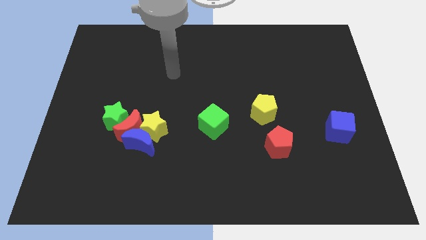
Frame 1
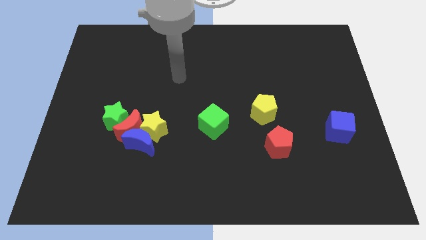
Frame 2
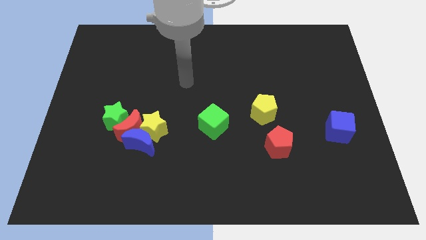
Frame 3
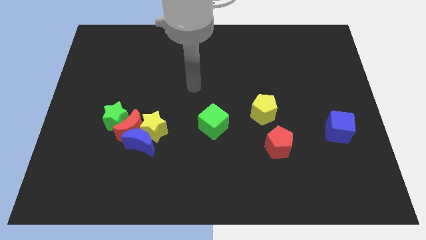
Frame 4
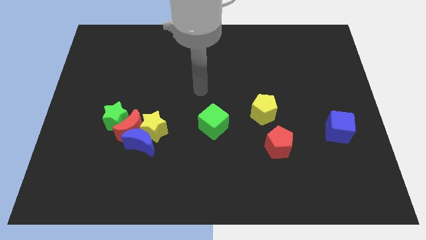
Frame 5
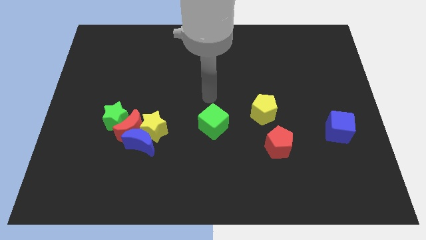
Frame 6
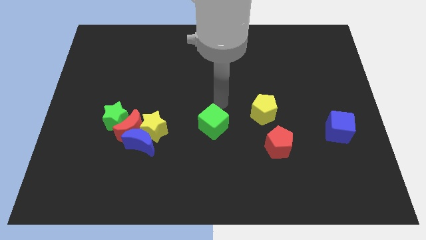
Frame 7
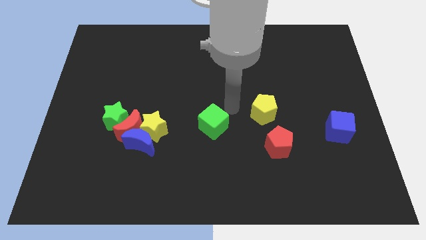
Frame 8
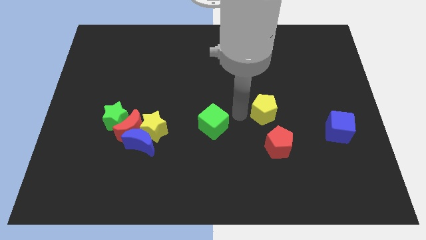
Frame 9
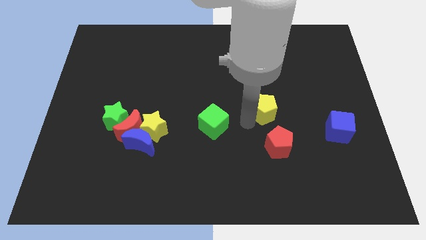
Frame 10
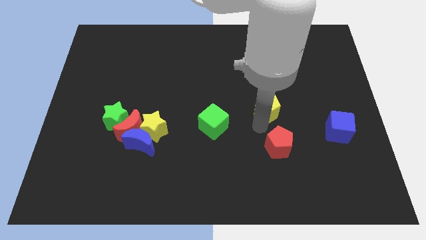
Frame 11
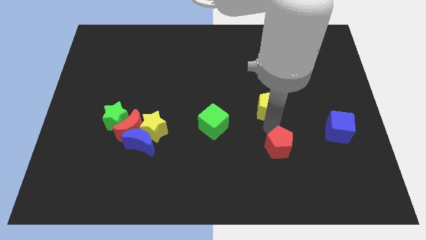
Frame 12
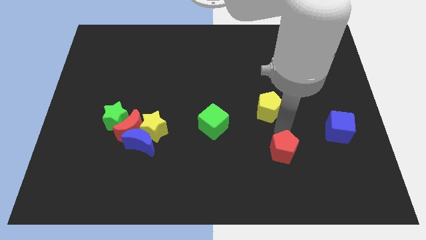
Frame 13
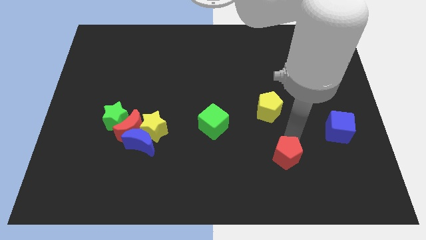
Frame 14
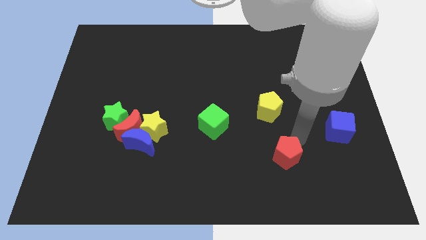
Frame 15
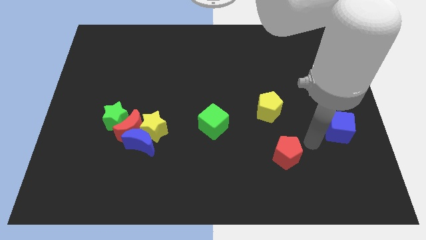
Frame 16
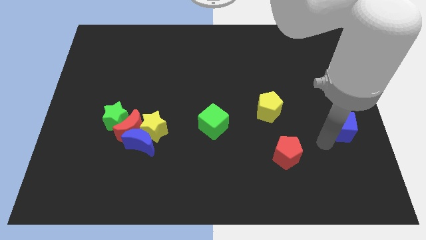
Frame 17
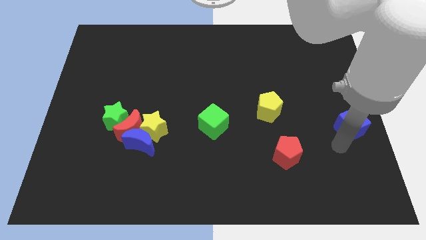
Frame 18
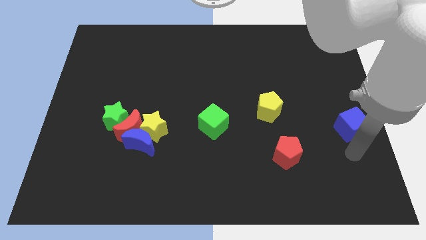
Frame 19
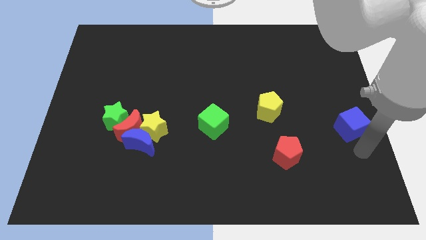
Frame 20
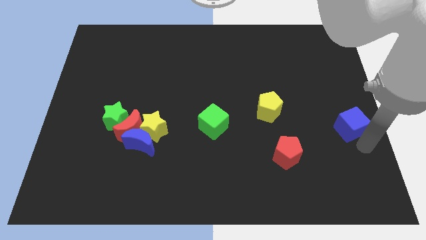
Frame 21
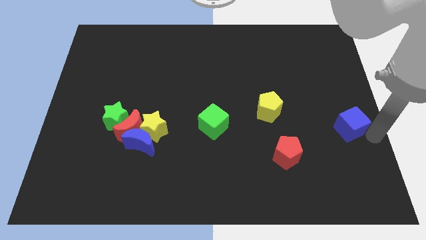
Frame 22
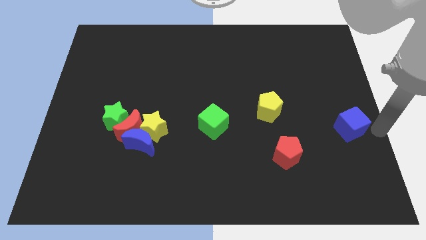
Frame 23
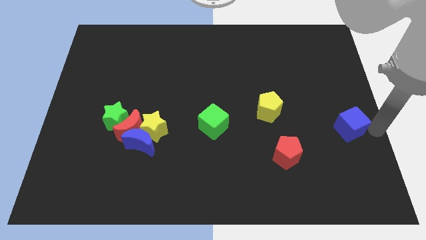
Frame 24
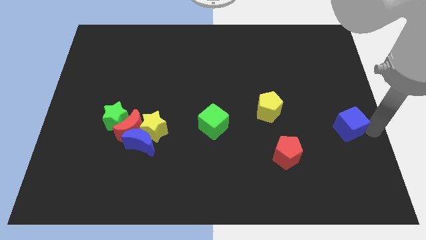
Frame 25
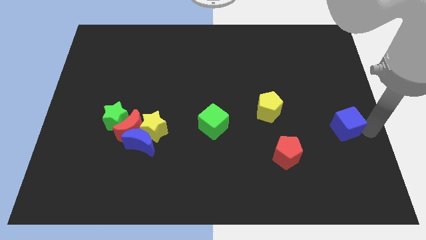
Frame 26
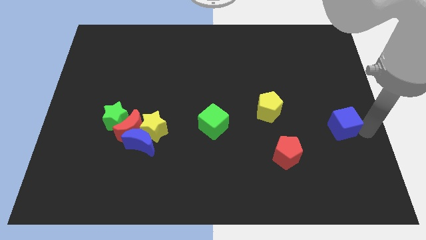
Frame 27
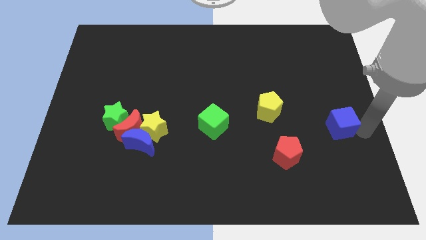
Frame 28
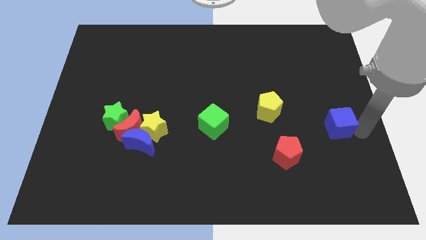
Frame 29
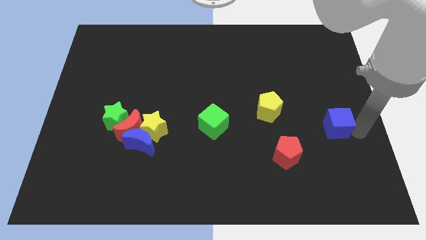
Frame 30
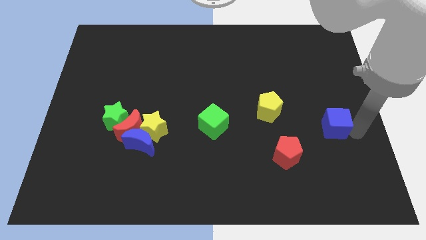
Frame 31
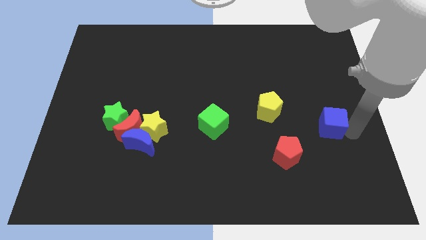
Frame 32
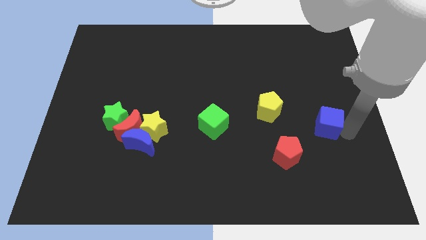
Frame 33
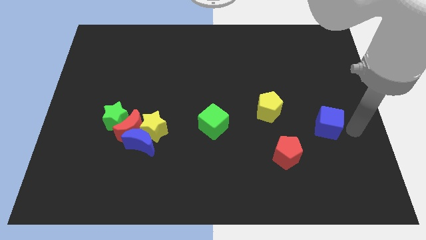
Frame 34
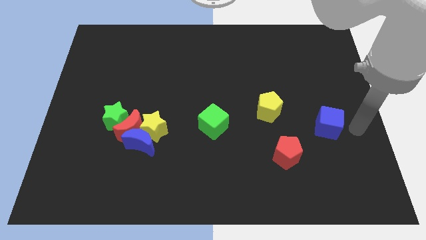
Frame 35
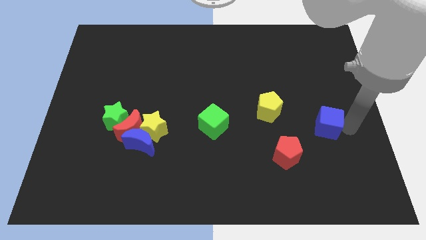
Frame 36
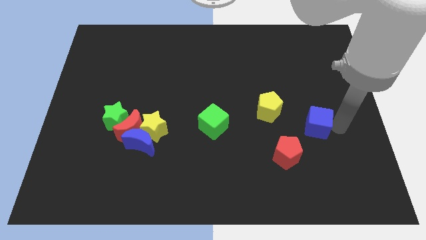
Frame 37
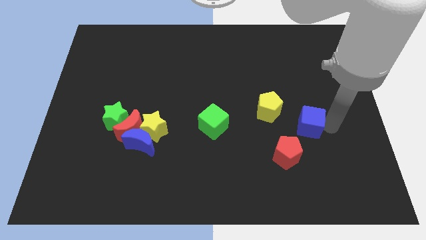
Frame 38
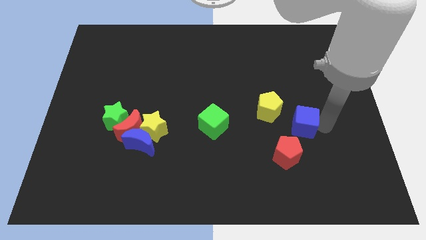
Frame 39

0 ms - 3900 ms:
slightly push the blue cube left

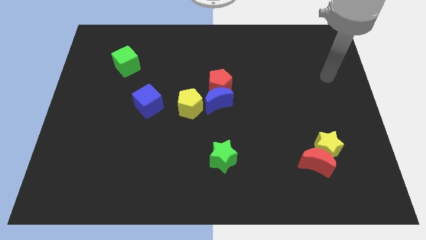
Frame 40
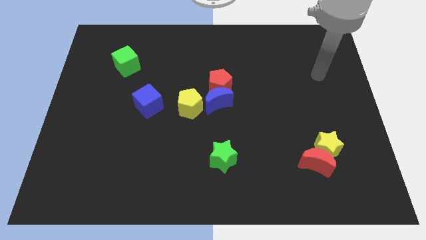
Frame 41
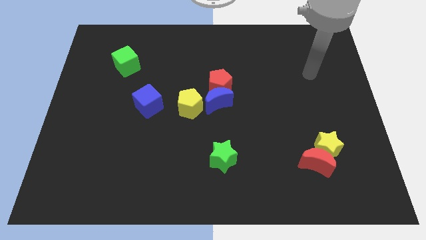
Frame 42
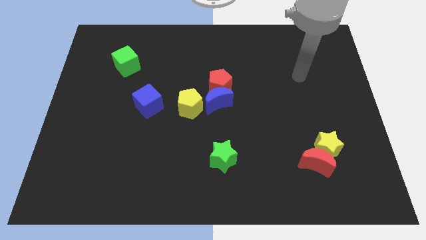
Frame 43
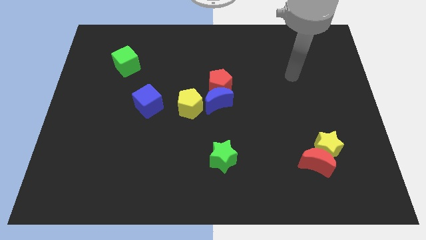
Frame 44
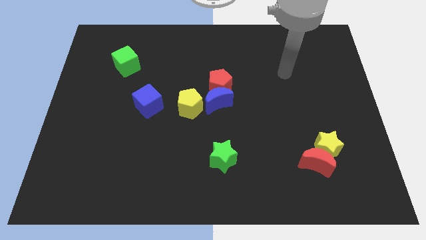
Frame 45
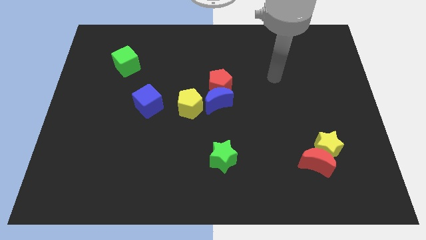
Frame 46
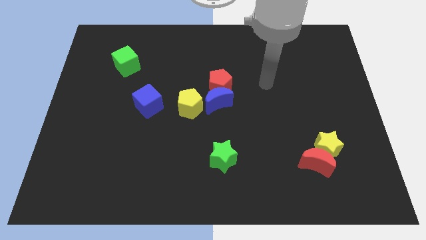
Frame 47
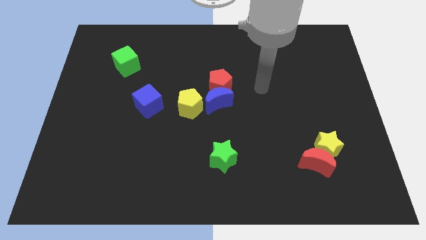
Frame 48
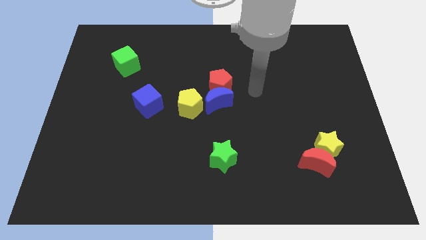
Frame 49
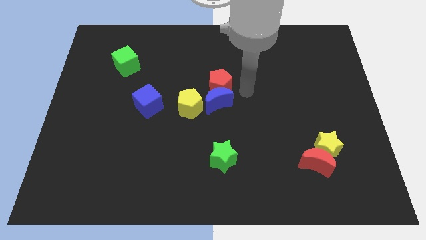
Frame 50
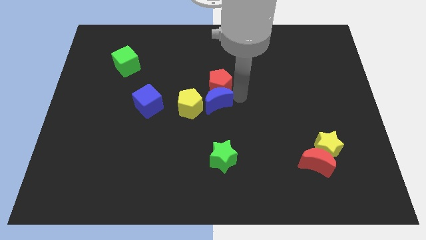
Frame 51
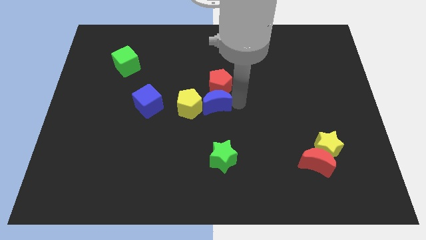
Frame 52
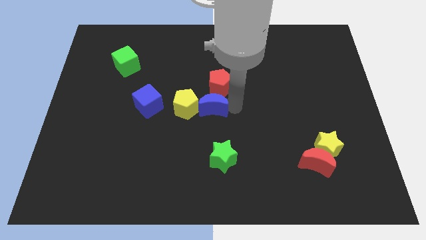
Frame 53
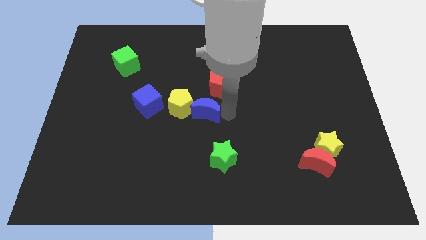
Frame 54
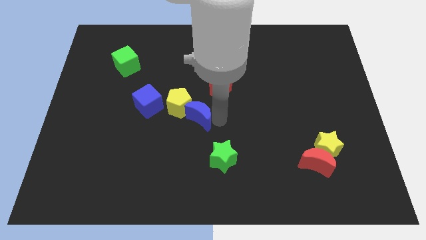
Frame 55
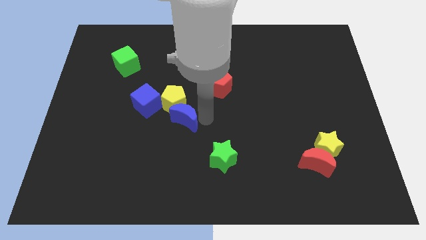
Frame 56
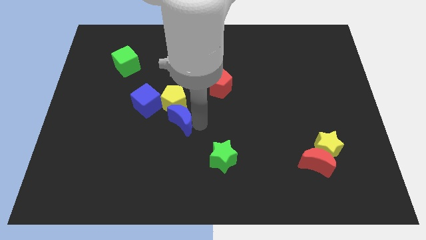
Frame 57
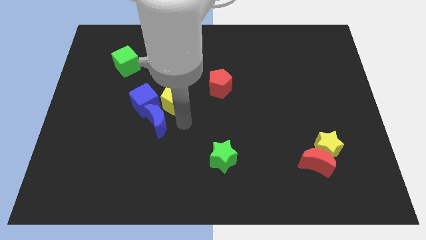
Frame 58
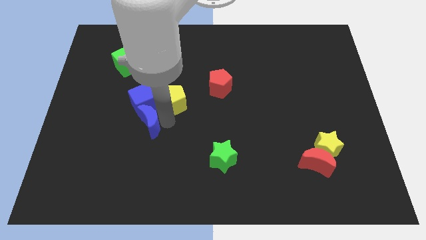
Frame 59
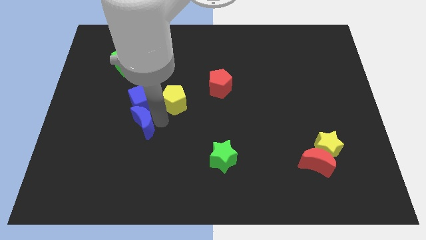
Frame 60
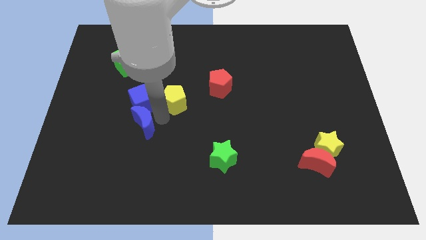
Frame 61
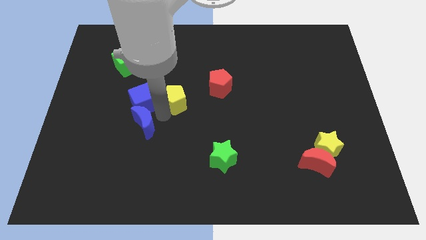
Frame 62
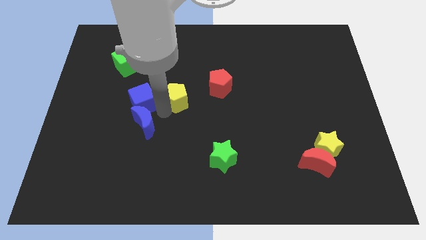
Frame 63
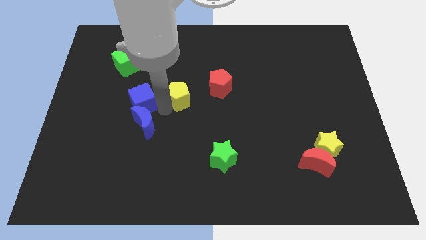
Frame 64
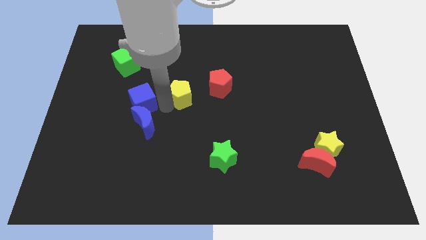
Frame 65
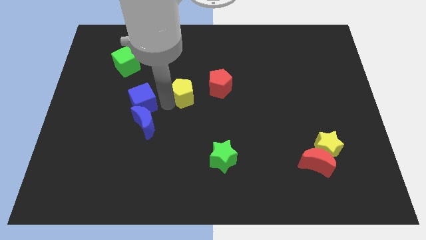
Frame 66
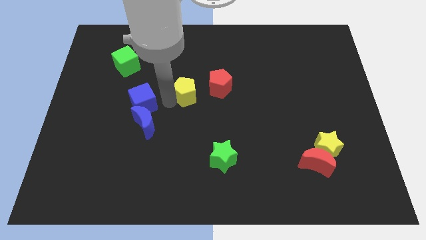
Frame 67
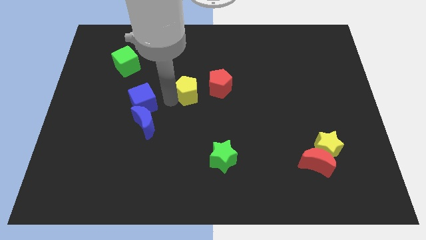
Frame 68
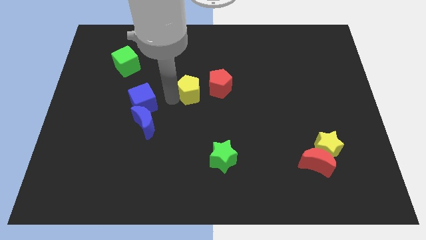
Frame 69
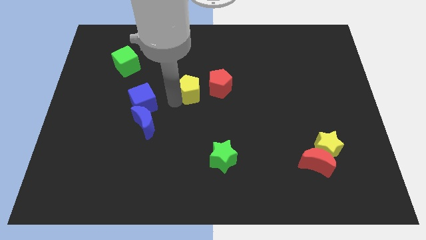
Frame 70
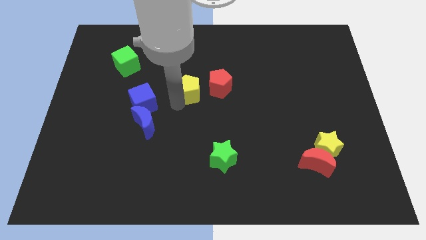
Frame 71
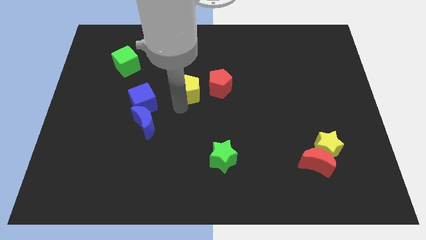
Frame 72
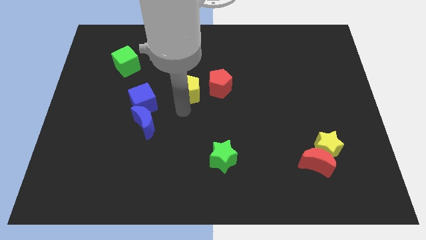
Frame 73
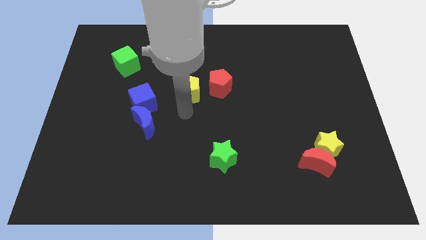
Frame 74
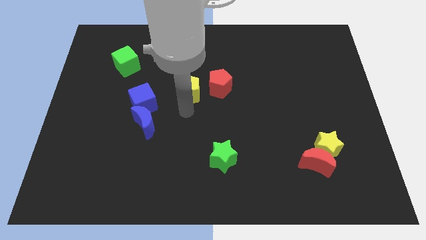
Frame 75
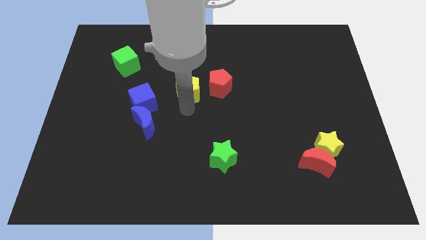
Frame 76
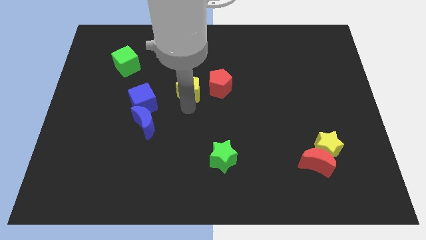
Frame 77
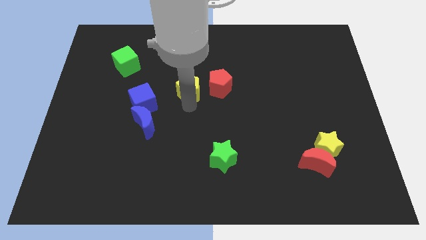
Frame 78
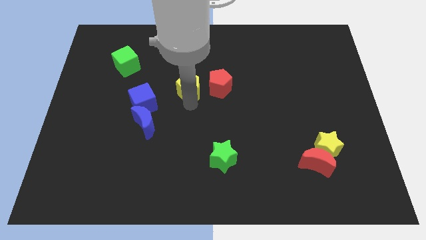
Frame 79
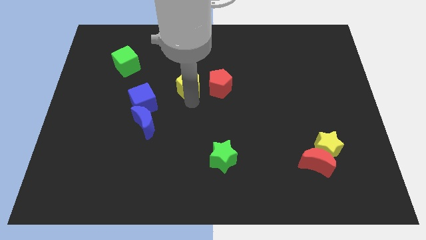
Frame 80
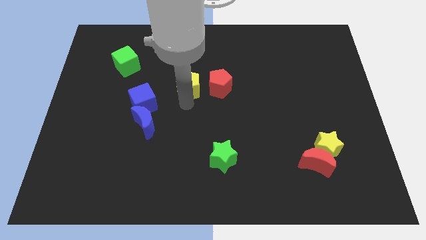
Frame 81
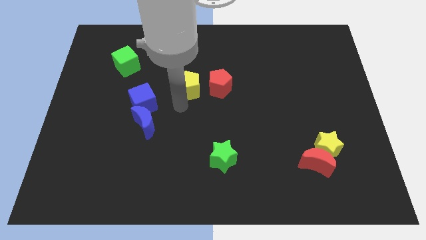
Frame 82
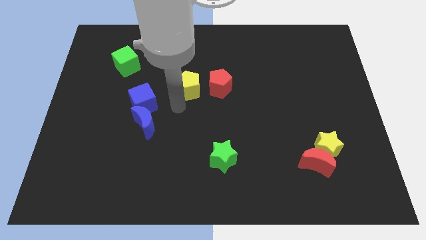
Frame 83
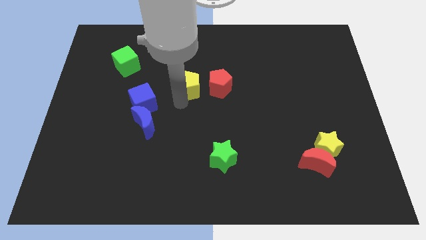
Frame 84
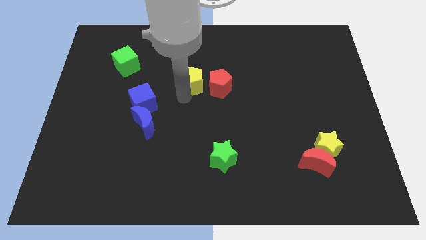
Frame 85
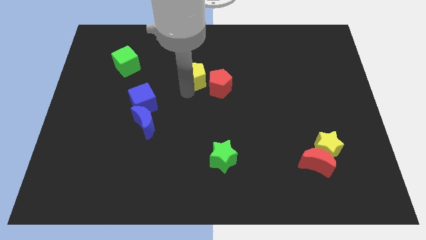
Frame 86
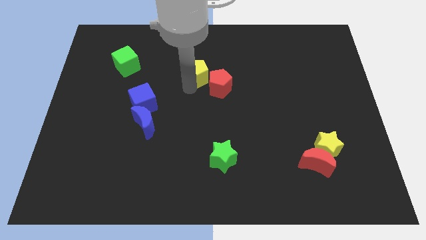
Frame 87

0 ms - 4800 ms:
slightly move the yellow pentagon diagonally upwards and to the right
